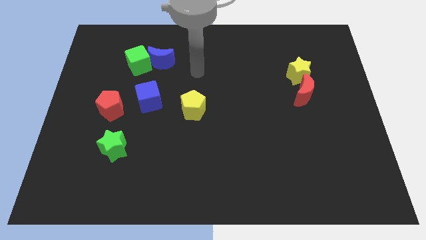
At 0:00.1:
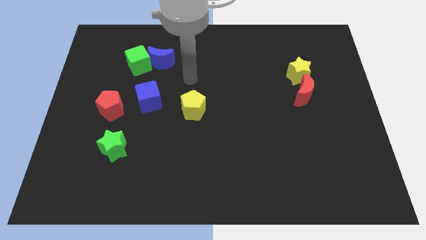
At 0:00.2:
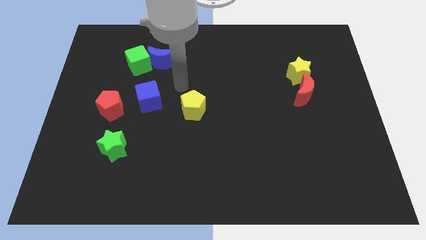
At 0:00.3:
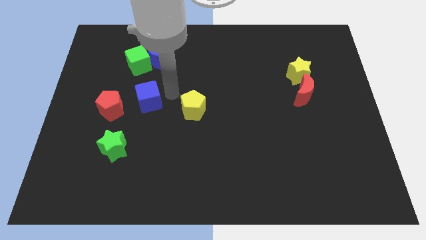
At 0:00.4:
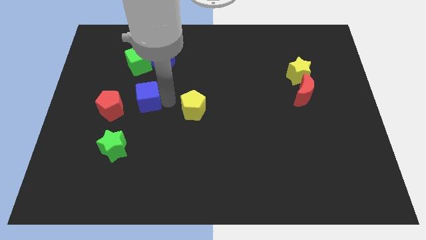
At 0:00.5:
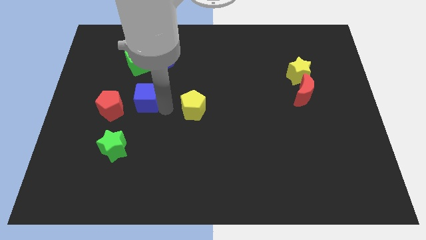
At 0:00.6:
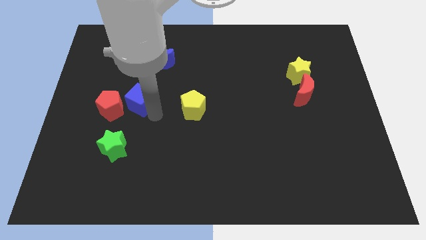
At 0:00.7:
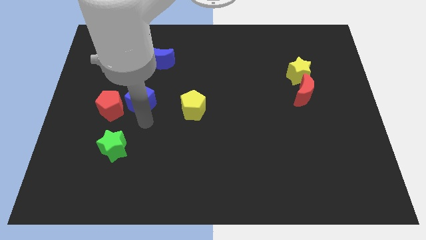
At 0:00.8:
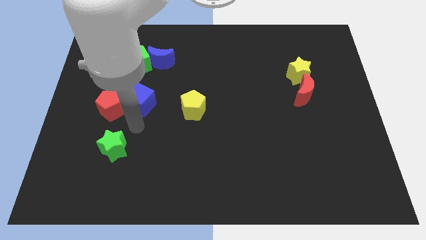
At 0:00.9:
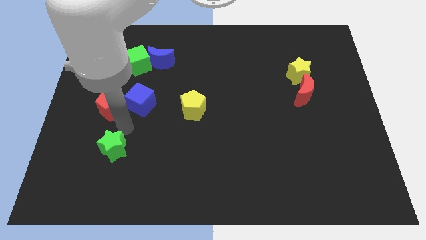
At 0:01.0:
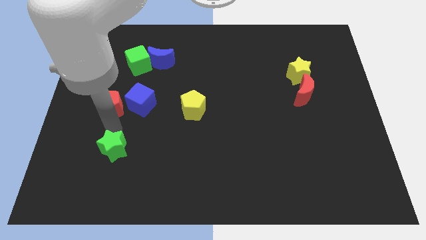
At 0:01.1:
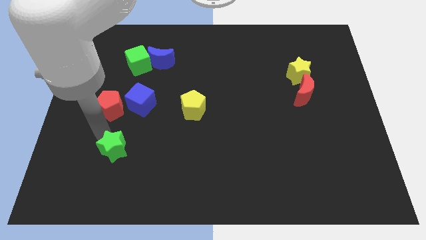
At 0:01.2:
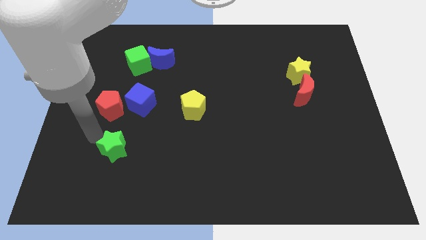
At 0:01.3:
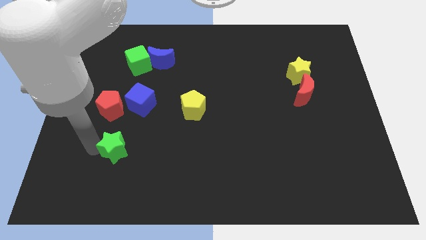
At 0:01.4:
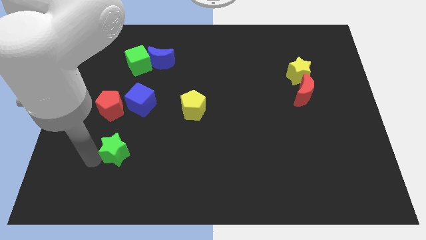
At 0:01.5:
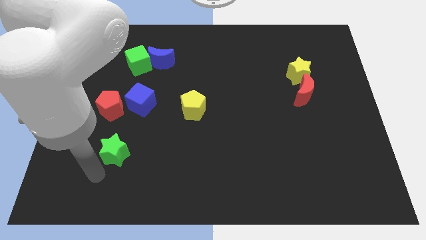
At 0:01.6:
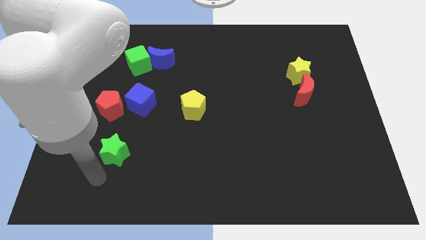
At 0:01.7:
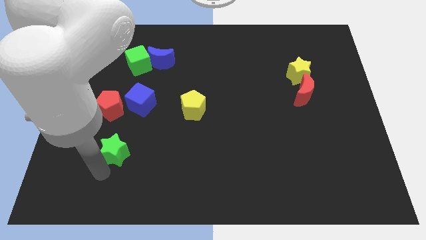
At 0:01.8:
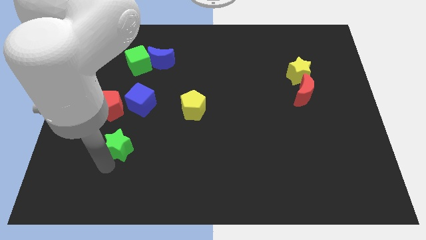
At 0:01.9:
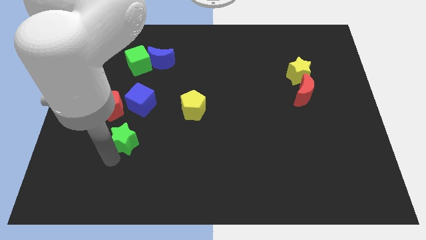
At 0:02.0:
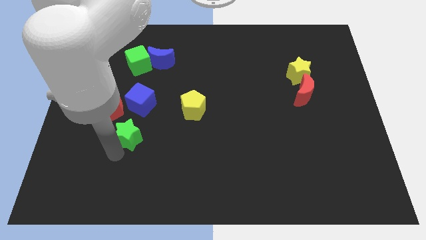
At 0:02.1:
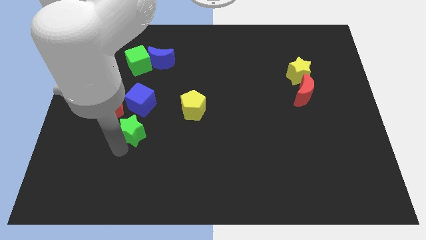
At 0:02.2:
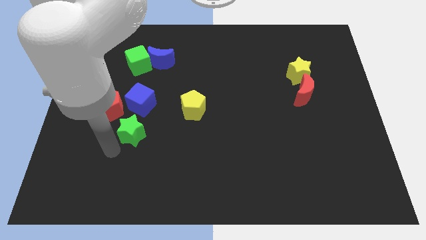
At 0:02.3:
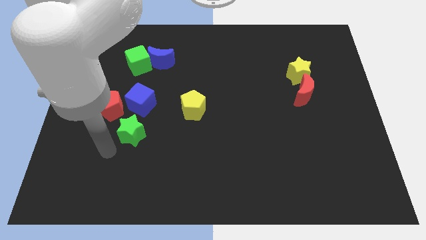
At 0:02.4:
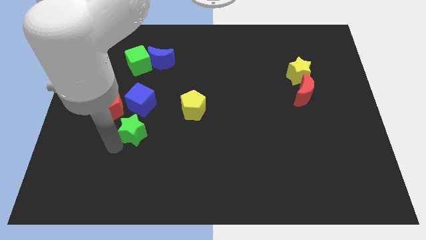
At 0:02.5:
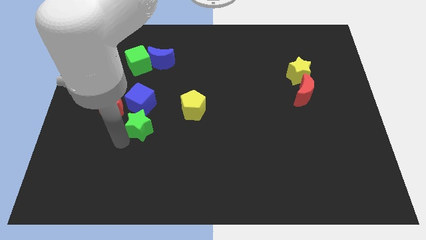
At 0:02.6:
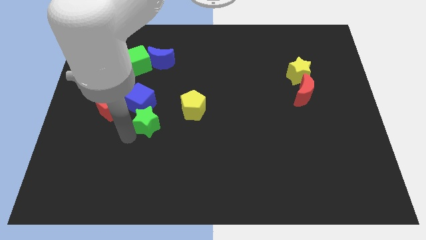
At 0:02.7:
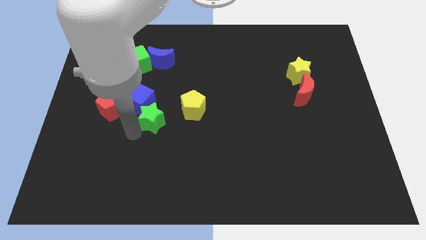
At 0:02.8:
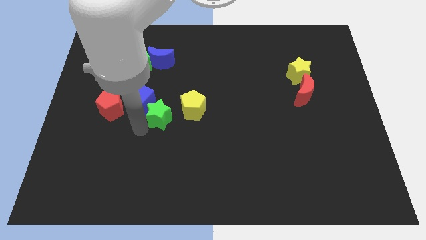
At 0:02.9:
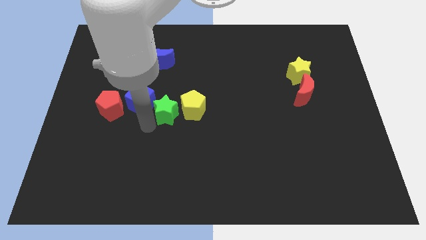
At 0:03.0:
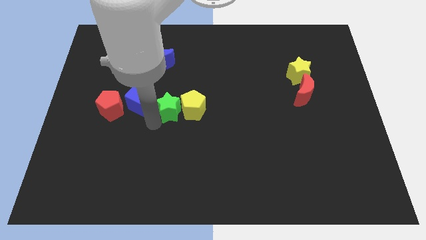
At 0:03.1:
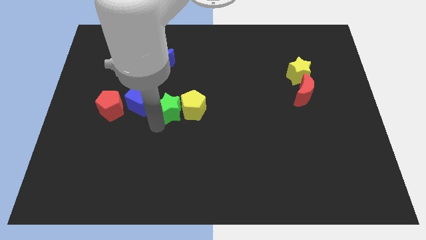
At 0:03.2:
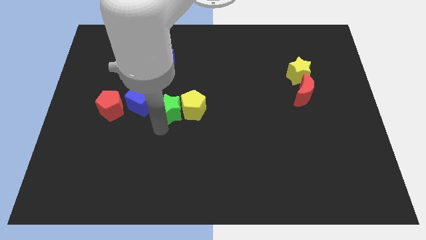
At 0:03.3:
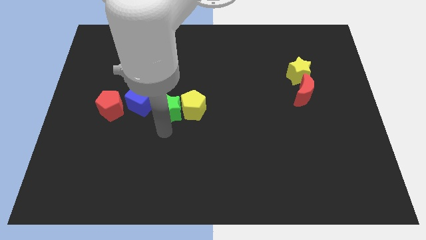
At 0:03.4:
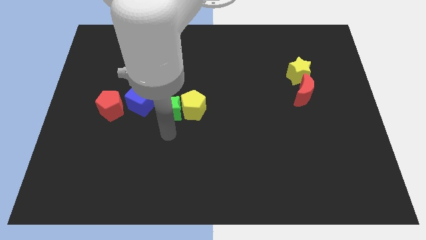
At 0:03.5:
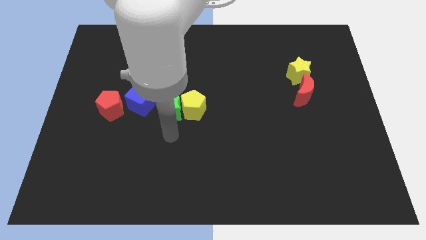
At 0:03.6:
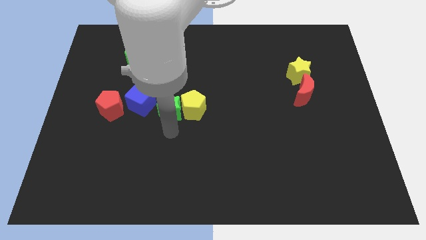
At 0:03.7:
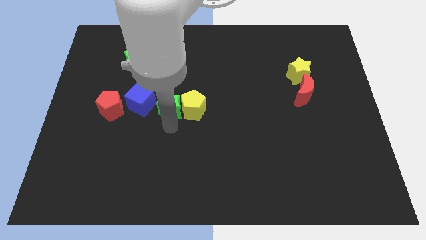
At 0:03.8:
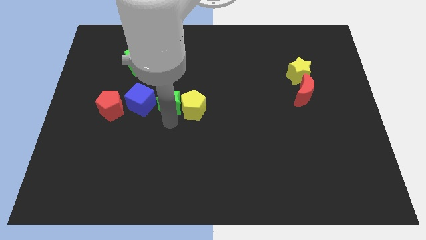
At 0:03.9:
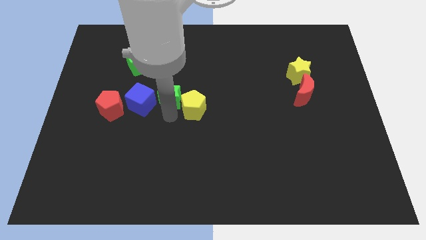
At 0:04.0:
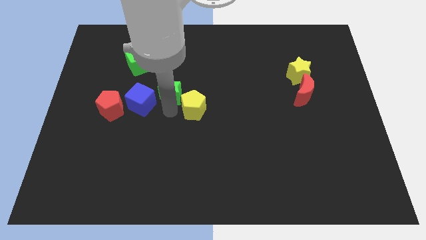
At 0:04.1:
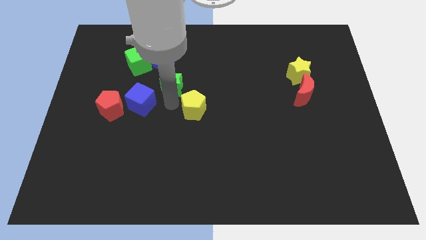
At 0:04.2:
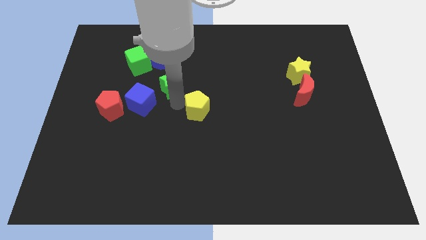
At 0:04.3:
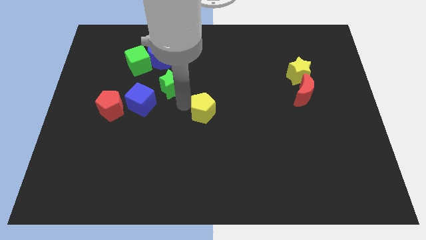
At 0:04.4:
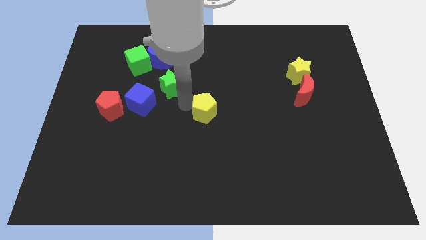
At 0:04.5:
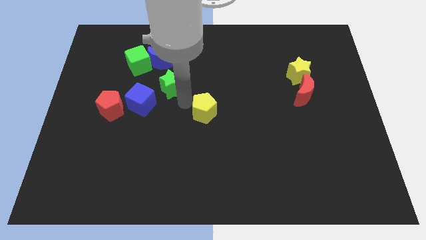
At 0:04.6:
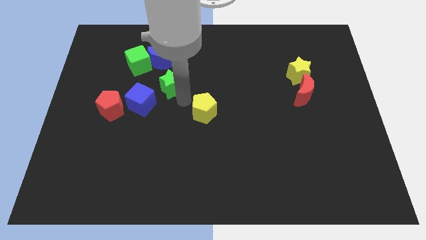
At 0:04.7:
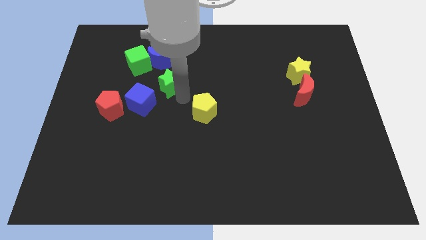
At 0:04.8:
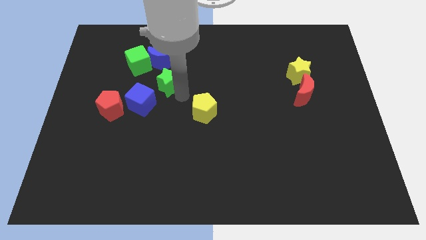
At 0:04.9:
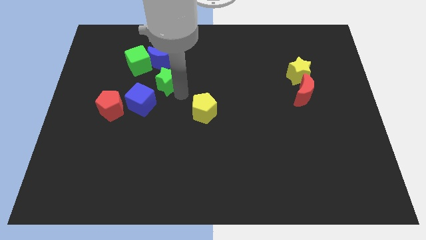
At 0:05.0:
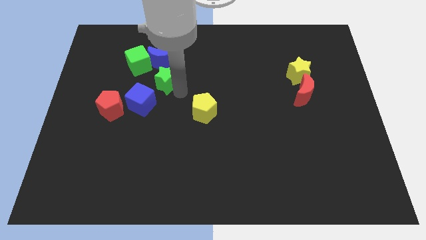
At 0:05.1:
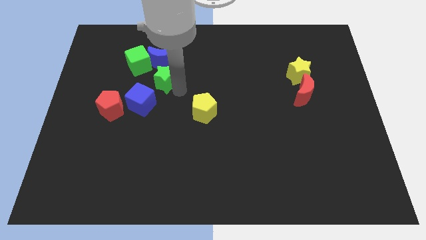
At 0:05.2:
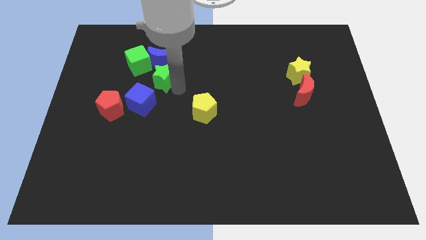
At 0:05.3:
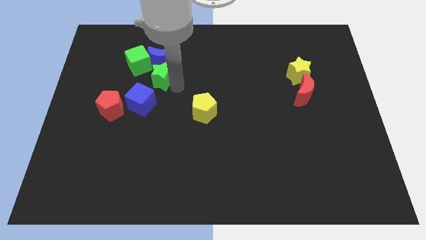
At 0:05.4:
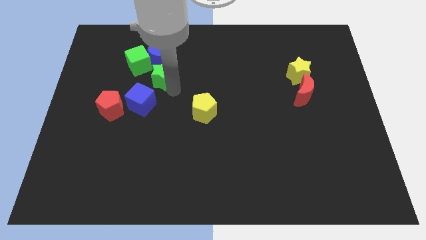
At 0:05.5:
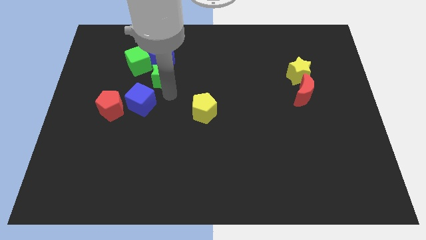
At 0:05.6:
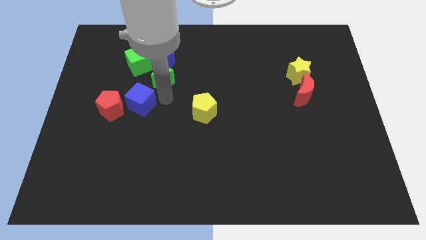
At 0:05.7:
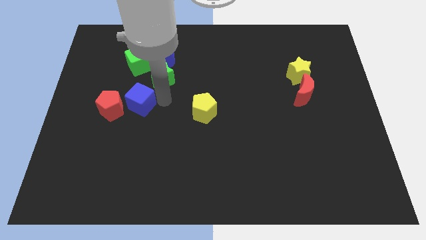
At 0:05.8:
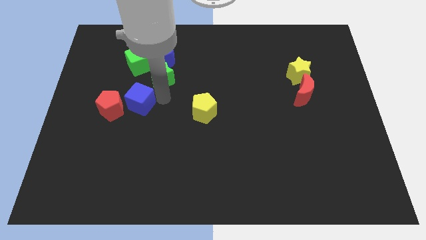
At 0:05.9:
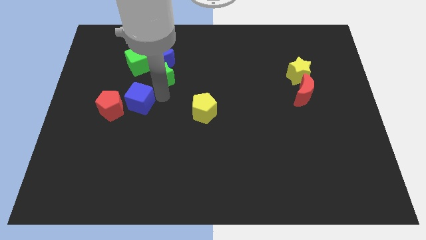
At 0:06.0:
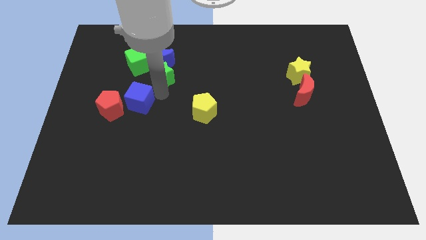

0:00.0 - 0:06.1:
push the green star close to the blue moon

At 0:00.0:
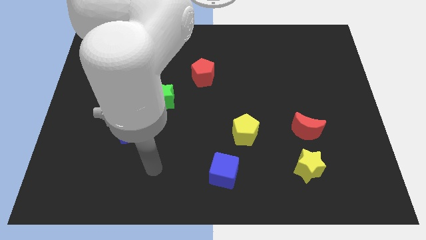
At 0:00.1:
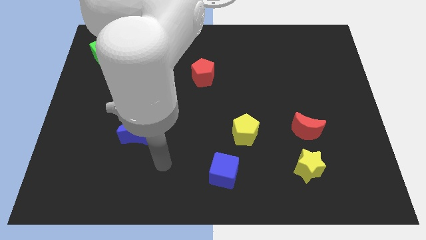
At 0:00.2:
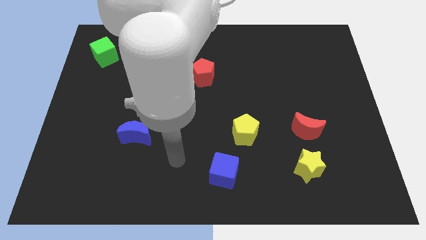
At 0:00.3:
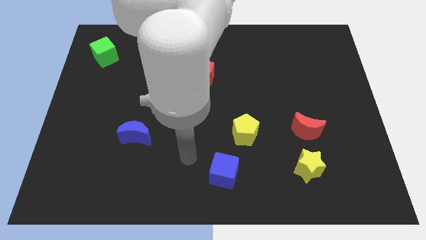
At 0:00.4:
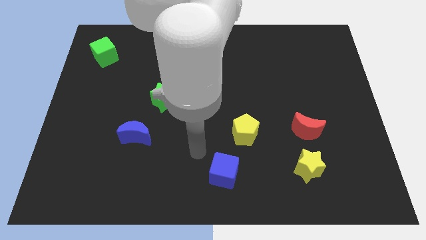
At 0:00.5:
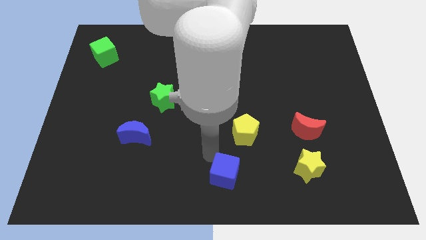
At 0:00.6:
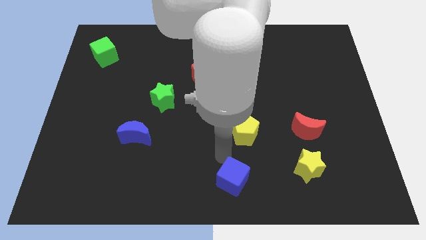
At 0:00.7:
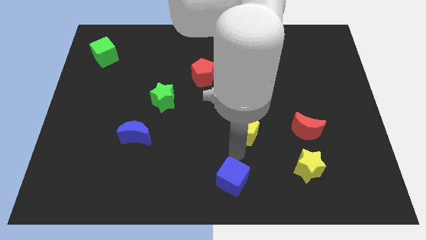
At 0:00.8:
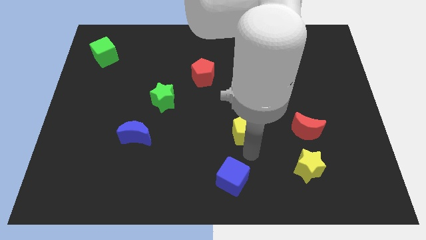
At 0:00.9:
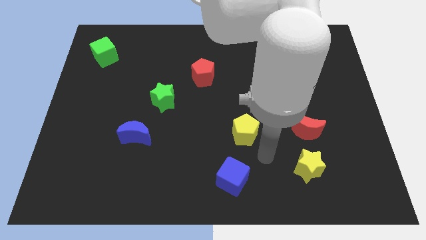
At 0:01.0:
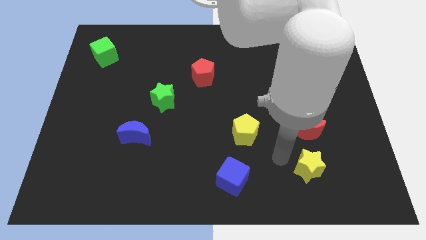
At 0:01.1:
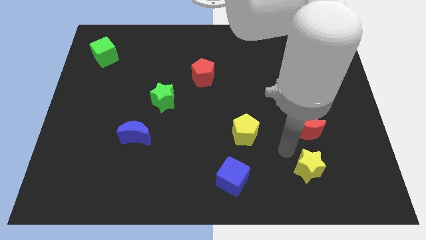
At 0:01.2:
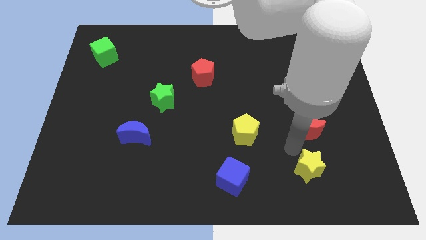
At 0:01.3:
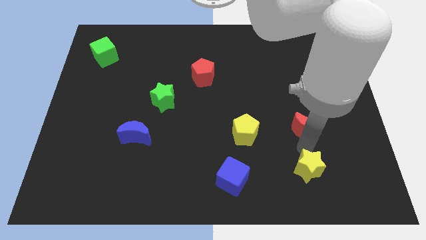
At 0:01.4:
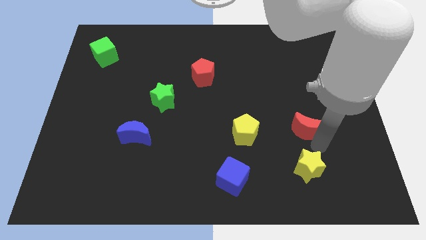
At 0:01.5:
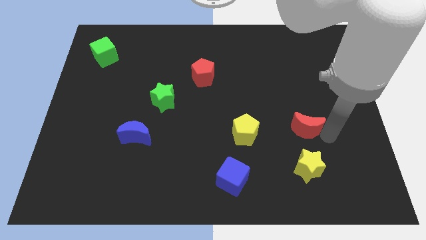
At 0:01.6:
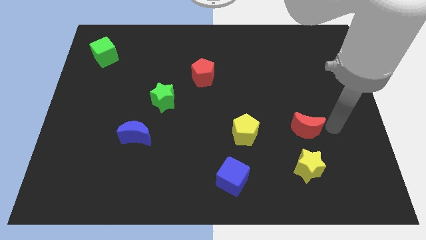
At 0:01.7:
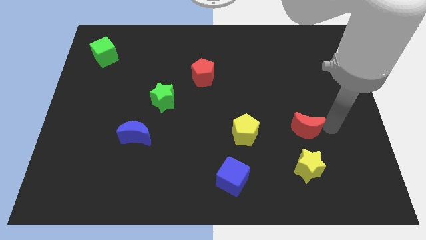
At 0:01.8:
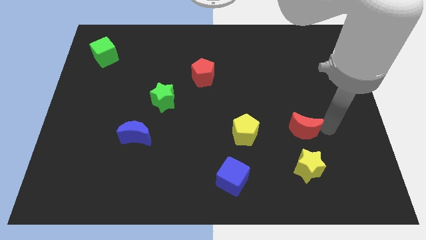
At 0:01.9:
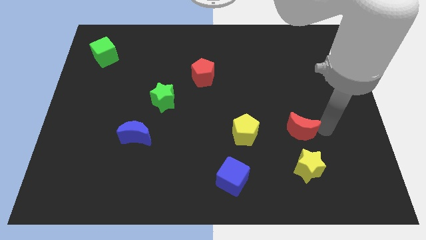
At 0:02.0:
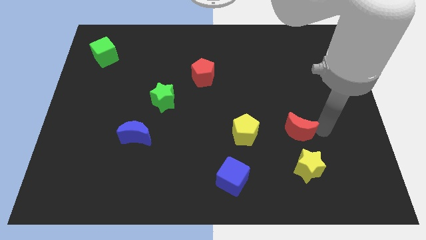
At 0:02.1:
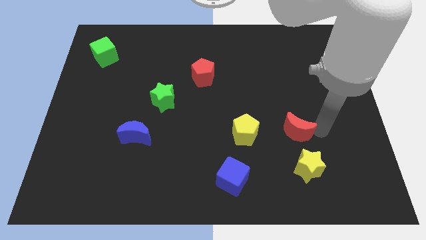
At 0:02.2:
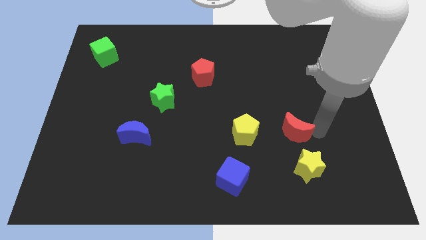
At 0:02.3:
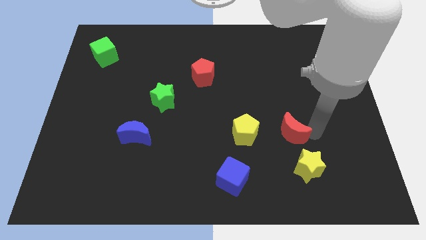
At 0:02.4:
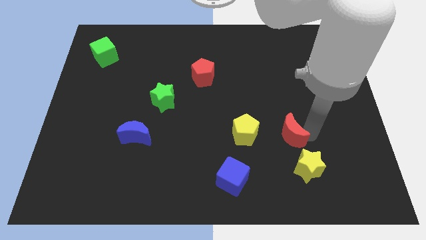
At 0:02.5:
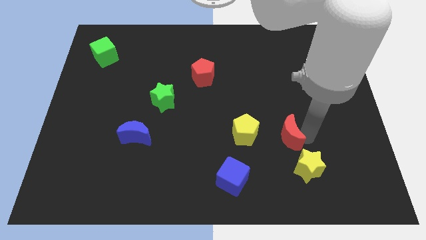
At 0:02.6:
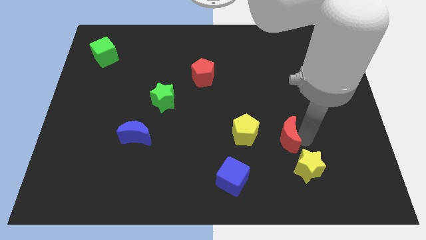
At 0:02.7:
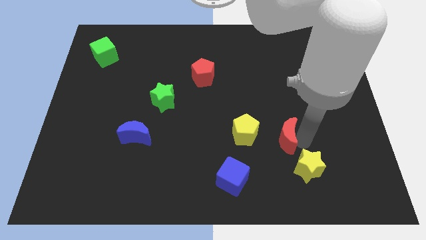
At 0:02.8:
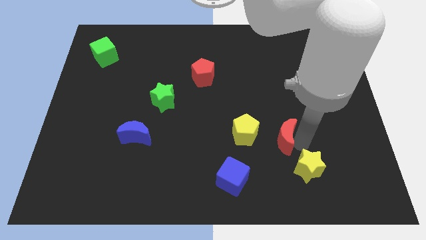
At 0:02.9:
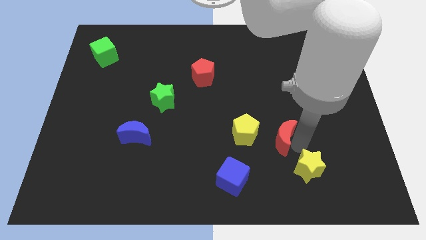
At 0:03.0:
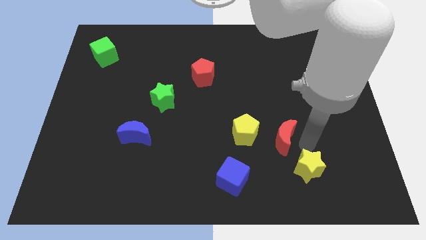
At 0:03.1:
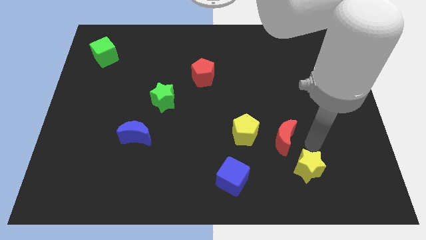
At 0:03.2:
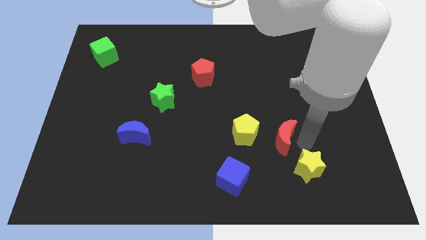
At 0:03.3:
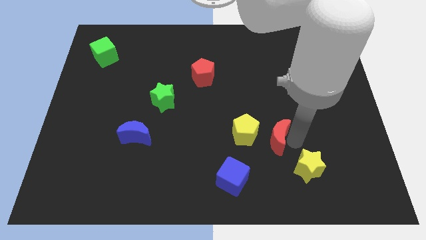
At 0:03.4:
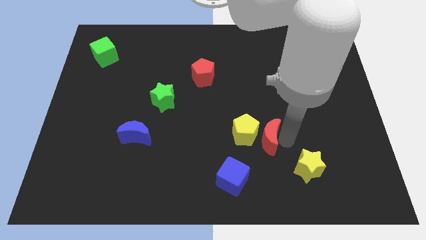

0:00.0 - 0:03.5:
put the red moon towards the yellow pentagon
